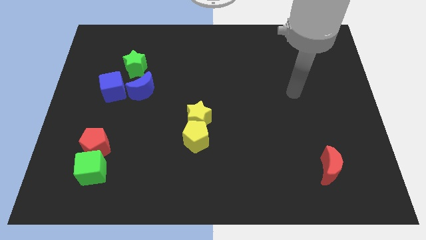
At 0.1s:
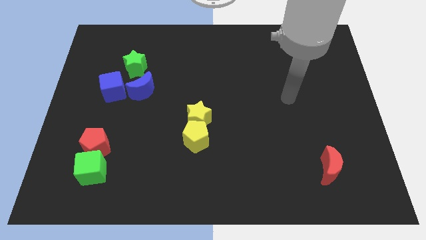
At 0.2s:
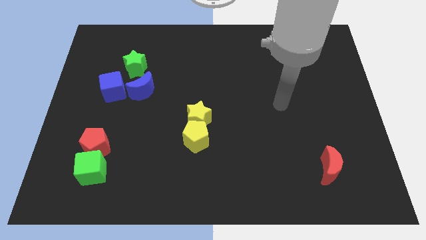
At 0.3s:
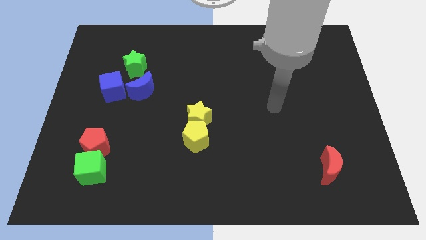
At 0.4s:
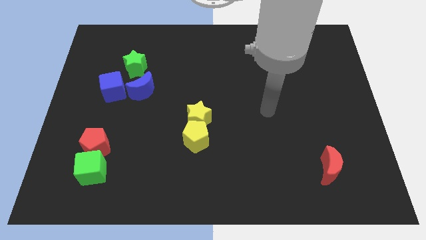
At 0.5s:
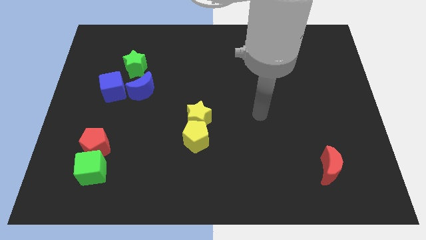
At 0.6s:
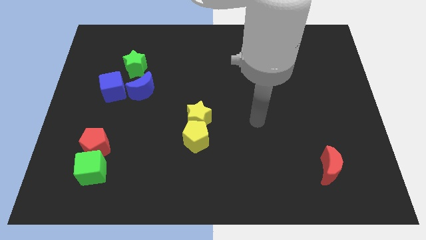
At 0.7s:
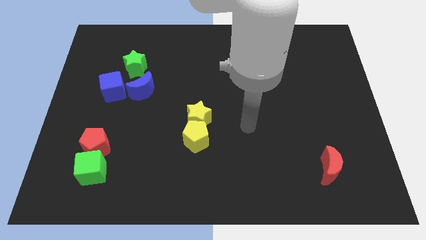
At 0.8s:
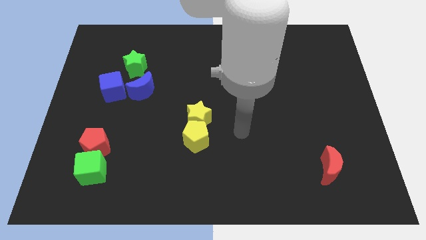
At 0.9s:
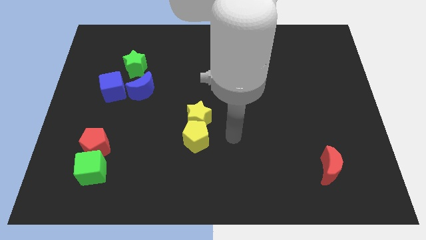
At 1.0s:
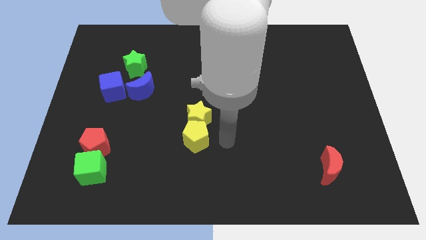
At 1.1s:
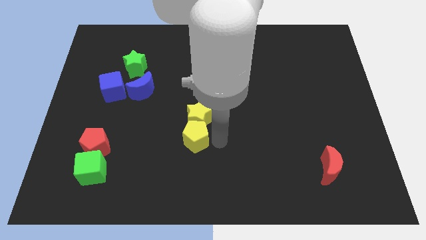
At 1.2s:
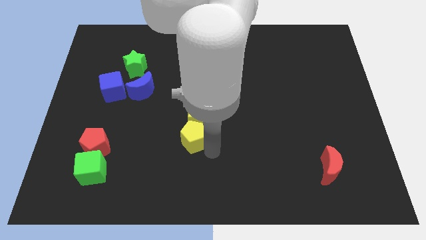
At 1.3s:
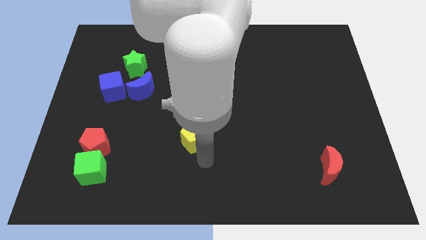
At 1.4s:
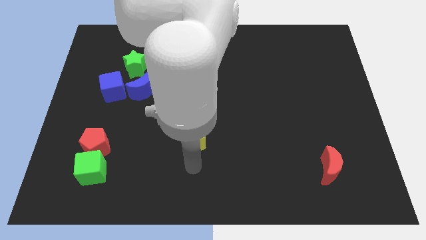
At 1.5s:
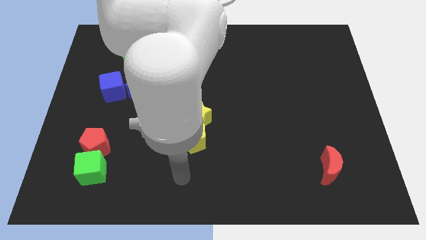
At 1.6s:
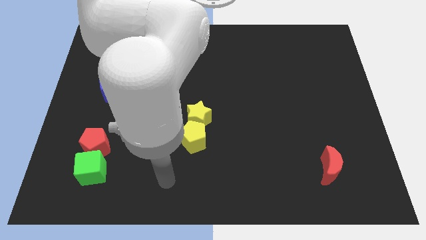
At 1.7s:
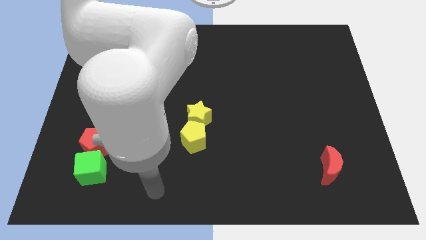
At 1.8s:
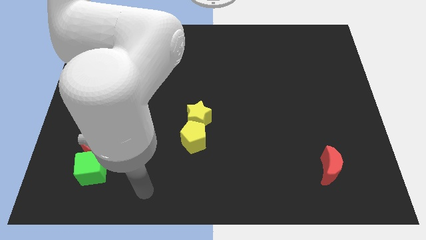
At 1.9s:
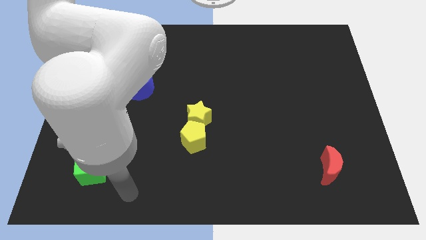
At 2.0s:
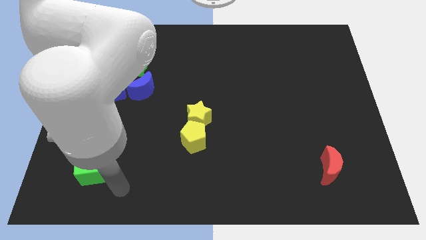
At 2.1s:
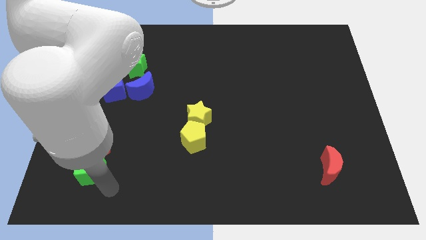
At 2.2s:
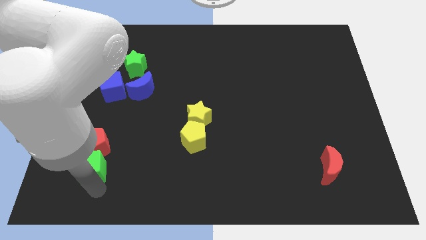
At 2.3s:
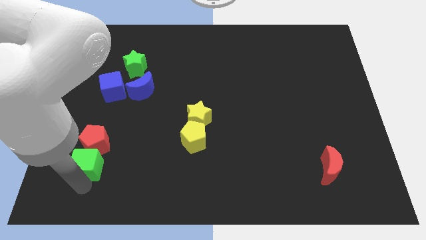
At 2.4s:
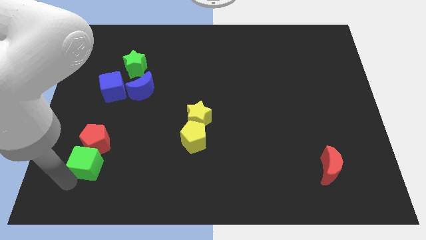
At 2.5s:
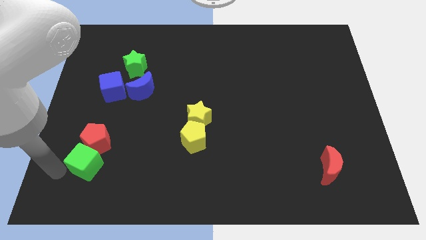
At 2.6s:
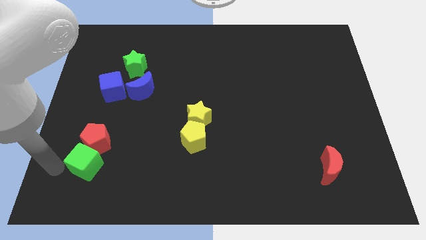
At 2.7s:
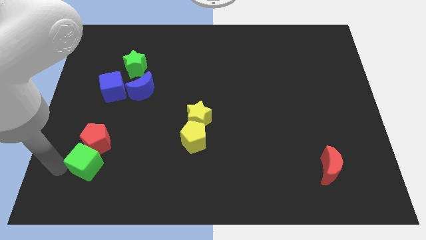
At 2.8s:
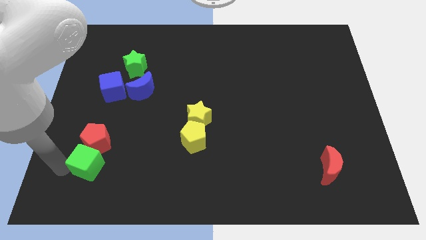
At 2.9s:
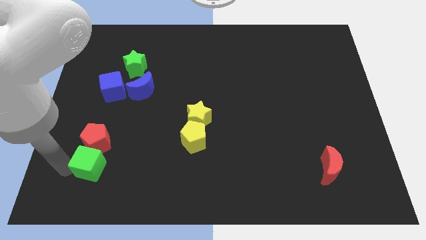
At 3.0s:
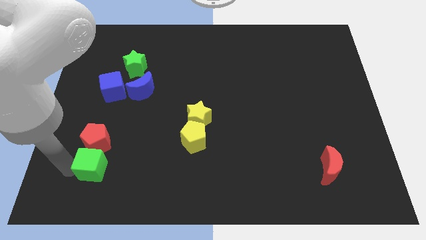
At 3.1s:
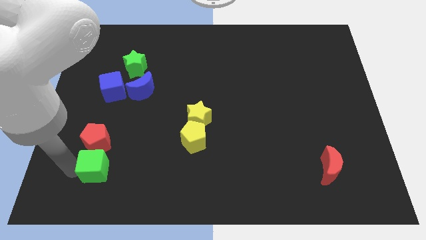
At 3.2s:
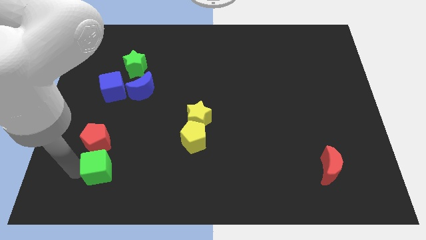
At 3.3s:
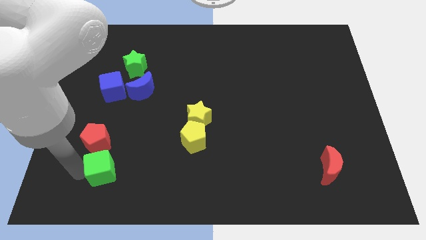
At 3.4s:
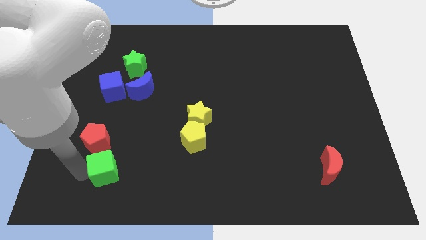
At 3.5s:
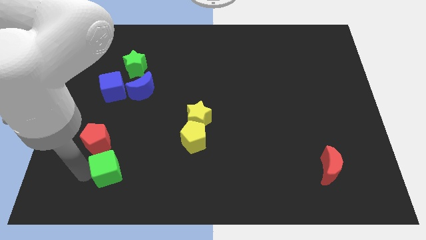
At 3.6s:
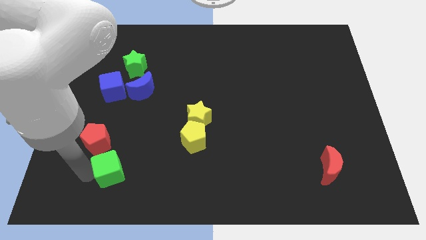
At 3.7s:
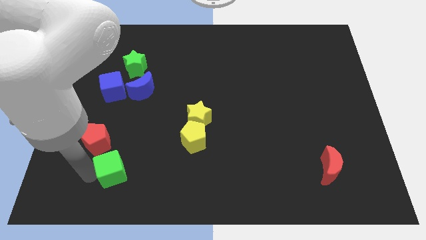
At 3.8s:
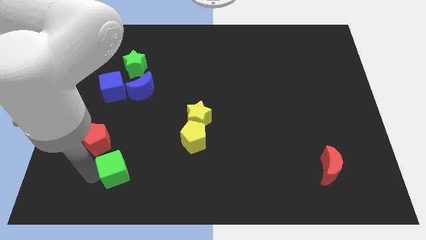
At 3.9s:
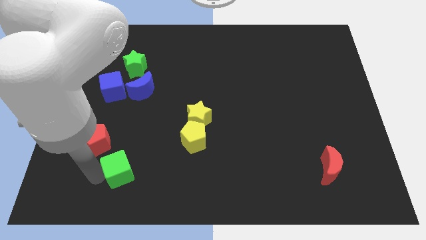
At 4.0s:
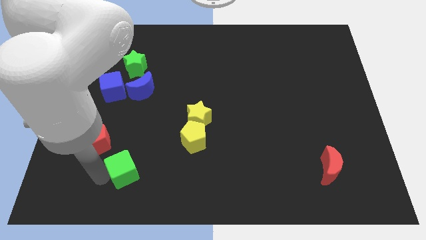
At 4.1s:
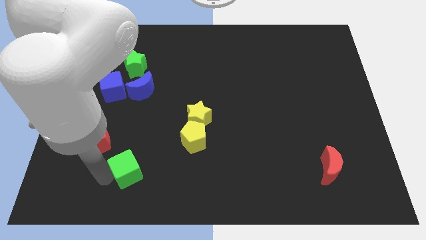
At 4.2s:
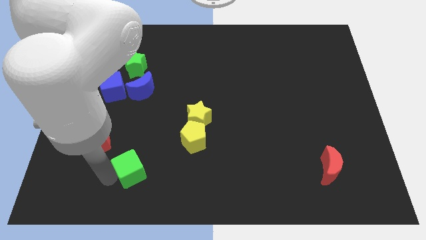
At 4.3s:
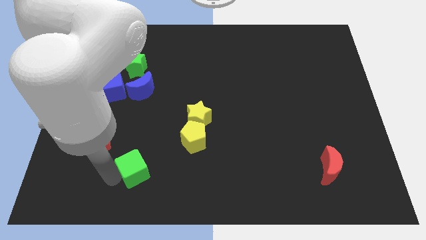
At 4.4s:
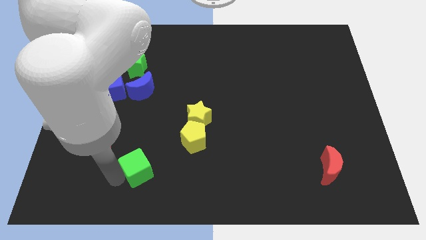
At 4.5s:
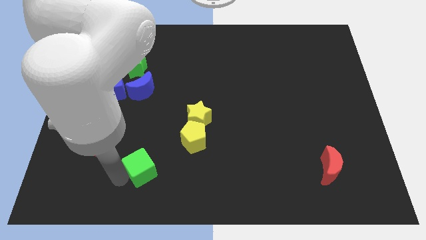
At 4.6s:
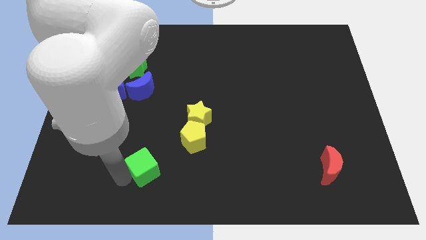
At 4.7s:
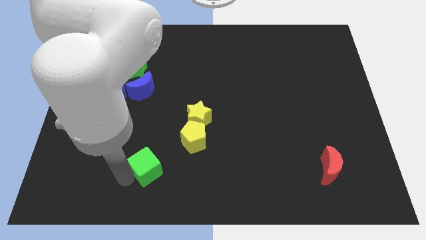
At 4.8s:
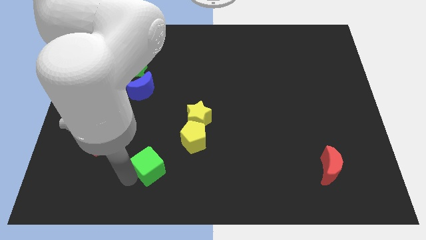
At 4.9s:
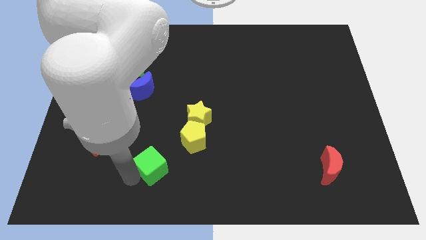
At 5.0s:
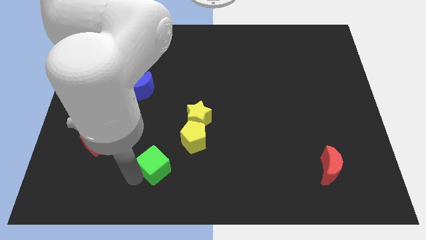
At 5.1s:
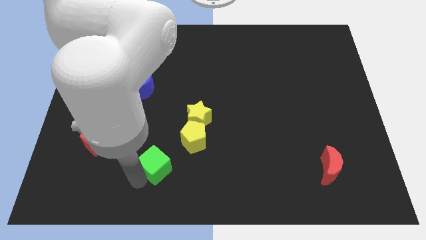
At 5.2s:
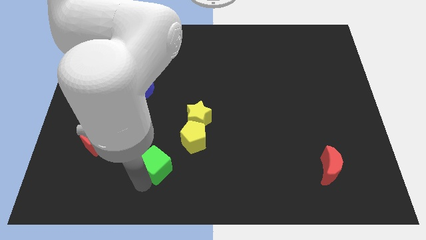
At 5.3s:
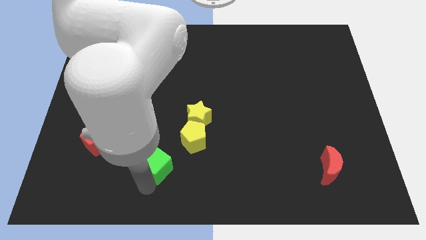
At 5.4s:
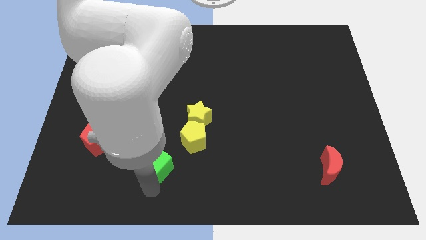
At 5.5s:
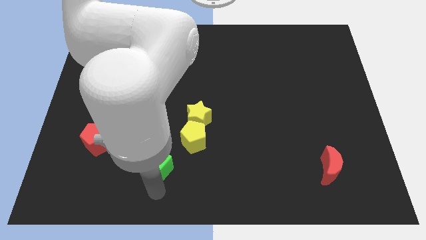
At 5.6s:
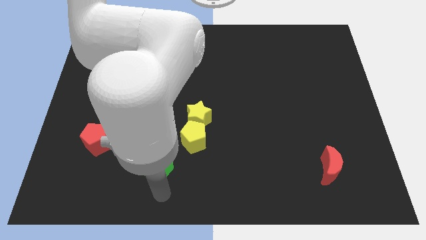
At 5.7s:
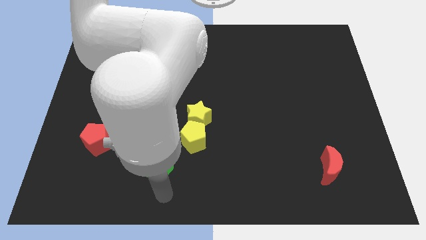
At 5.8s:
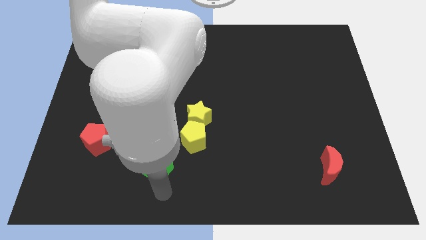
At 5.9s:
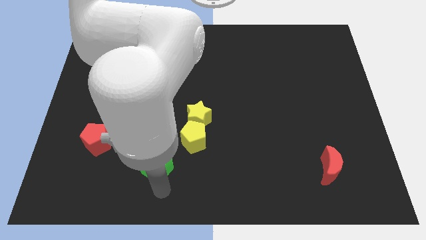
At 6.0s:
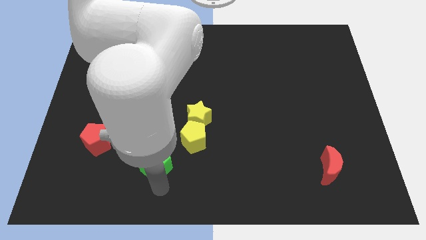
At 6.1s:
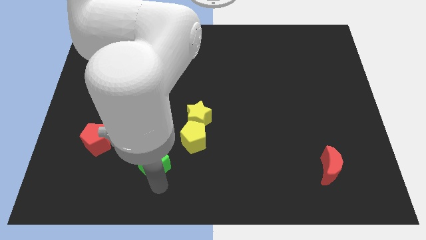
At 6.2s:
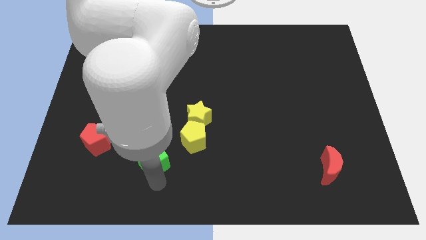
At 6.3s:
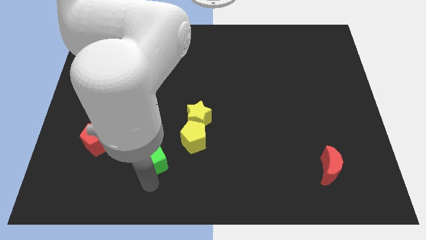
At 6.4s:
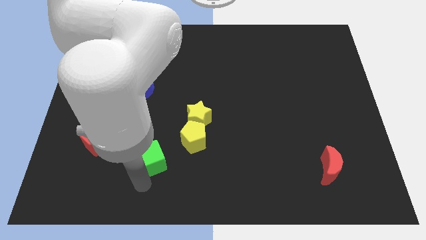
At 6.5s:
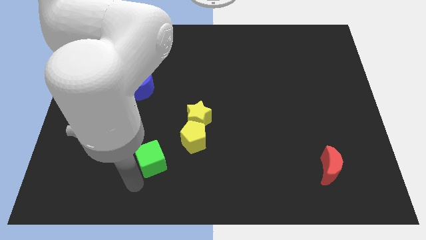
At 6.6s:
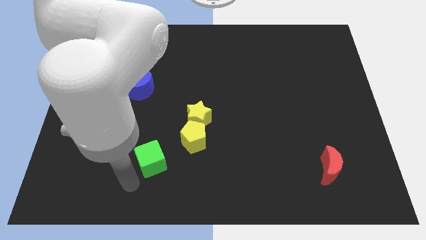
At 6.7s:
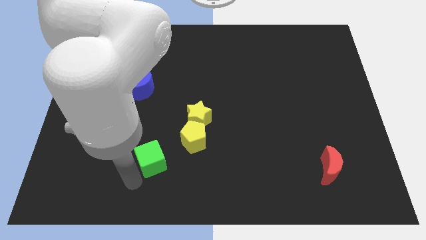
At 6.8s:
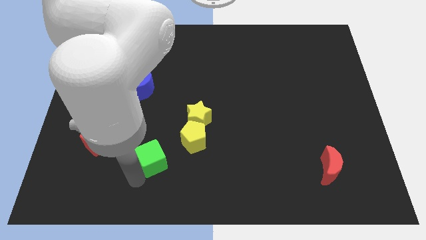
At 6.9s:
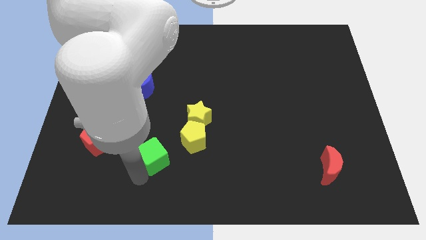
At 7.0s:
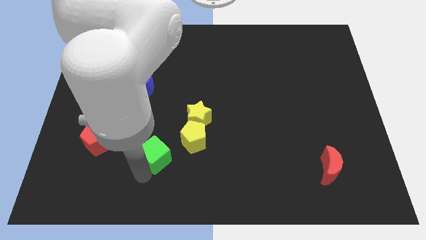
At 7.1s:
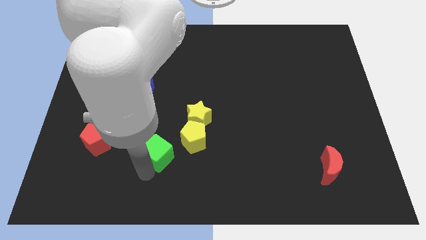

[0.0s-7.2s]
put the green cube diagonally down and to the left of the yellow star

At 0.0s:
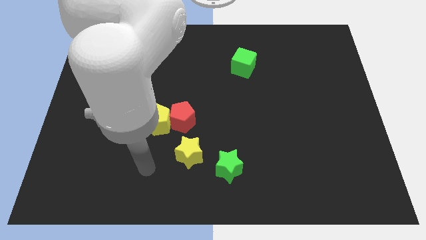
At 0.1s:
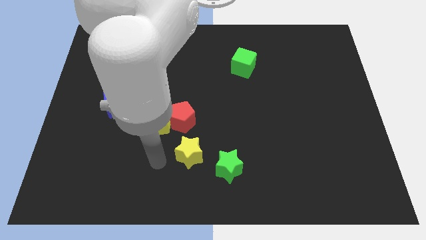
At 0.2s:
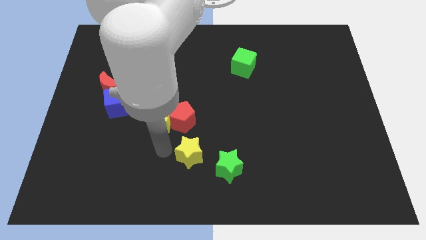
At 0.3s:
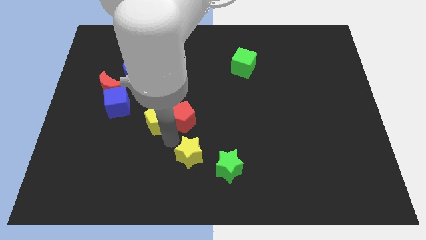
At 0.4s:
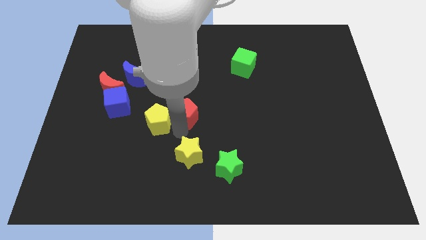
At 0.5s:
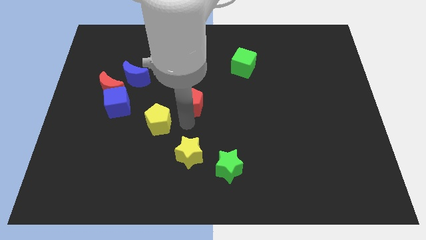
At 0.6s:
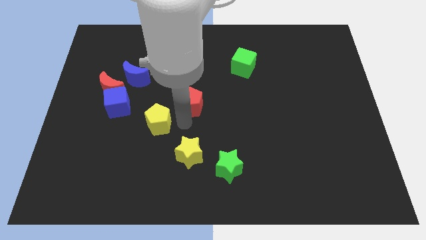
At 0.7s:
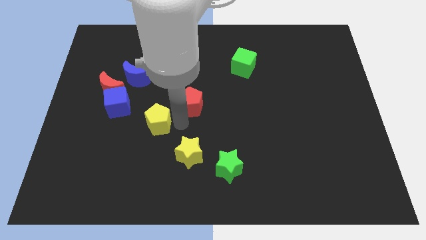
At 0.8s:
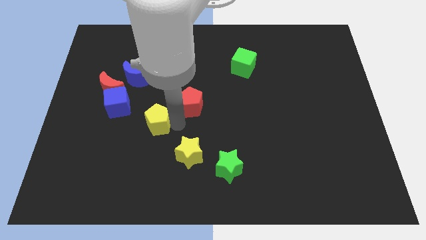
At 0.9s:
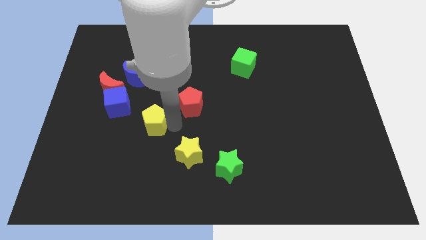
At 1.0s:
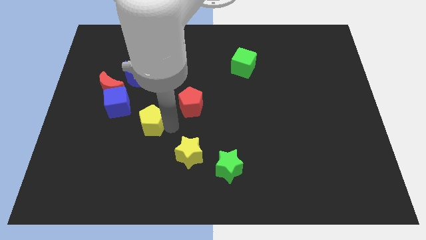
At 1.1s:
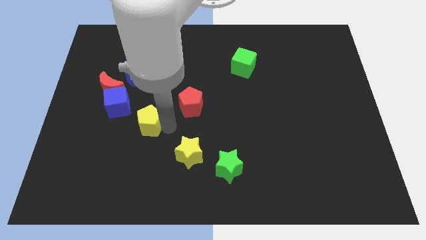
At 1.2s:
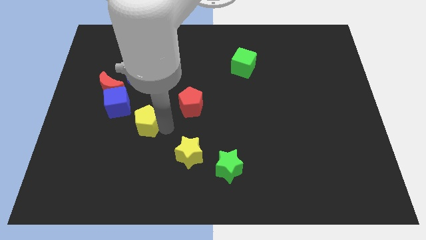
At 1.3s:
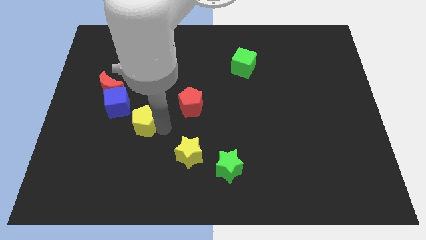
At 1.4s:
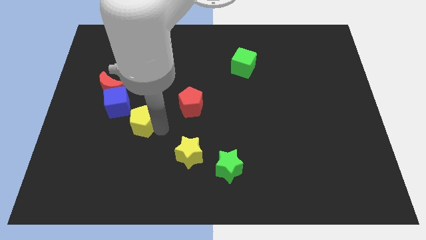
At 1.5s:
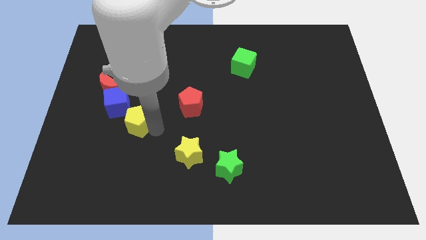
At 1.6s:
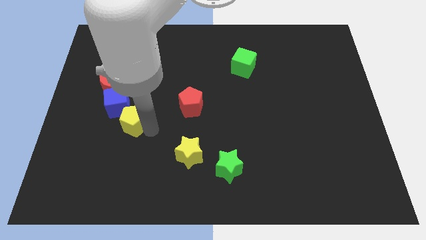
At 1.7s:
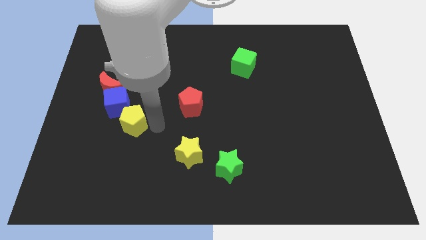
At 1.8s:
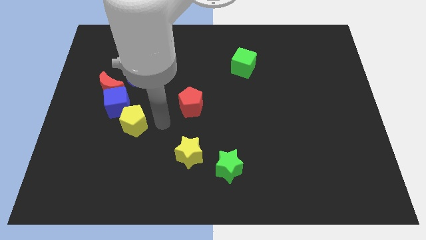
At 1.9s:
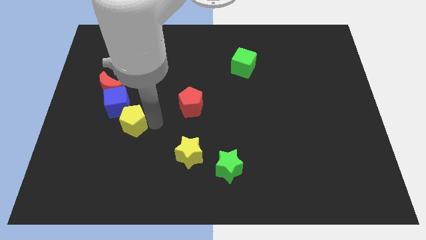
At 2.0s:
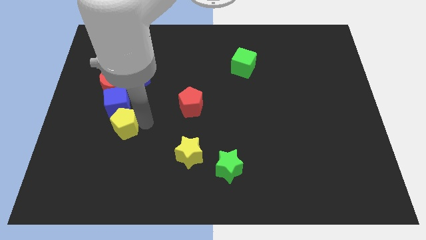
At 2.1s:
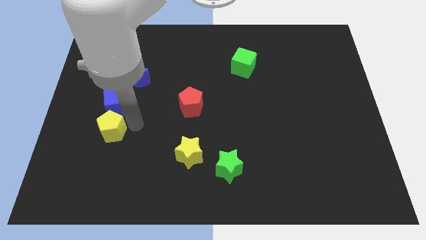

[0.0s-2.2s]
push the yellow pentagon diagonally down and to the left of the blue cube
